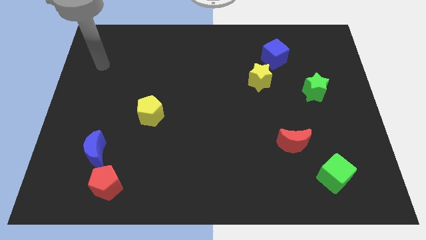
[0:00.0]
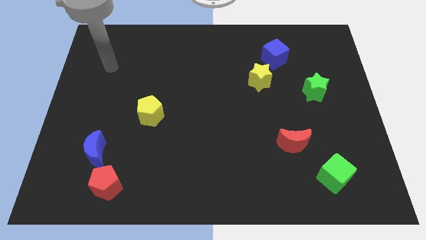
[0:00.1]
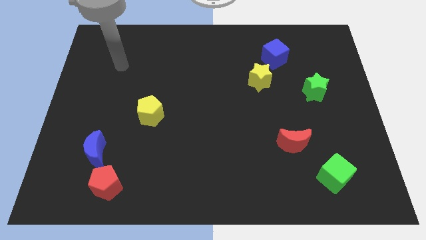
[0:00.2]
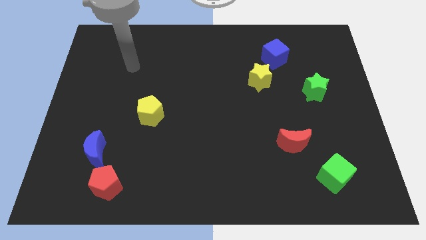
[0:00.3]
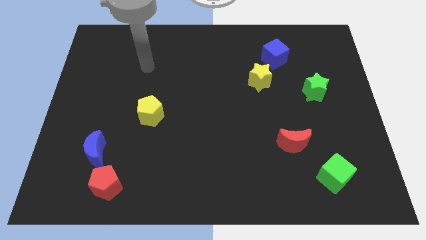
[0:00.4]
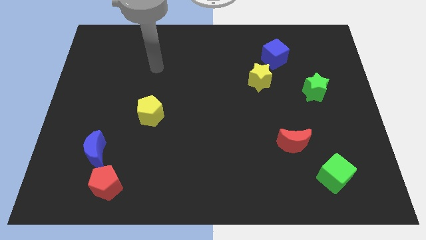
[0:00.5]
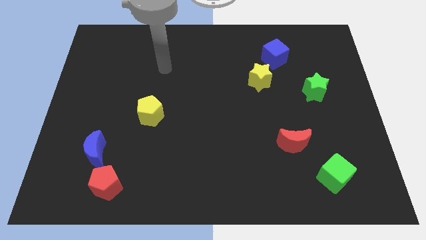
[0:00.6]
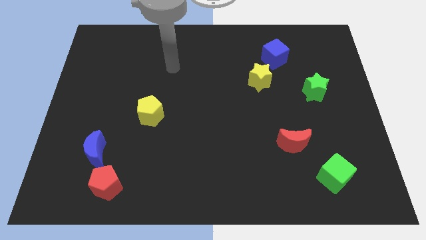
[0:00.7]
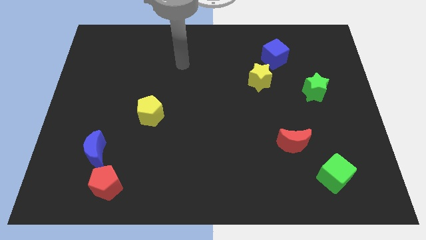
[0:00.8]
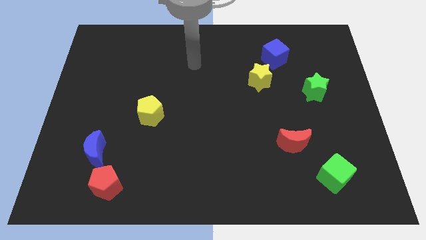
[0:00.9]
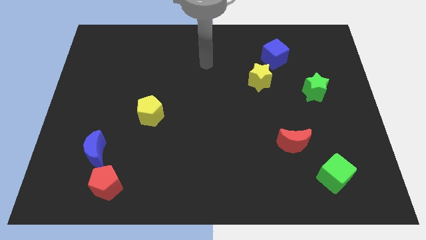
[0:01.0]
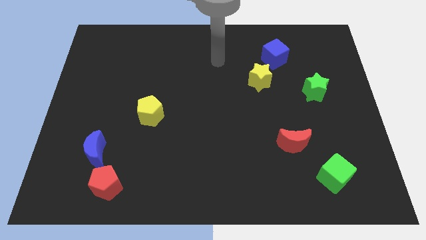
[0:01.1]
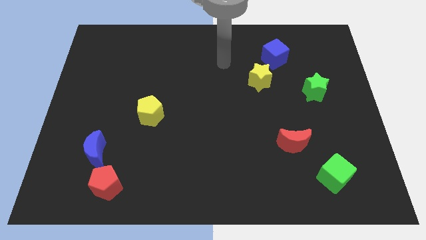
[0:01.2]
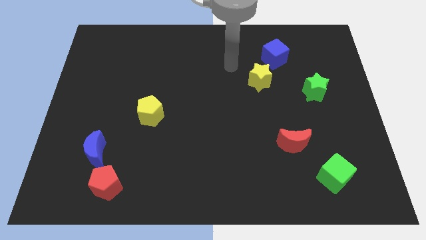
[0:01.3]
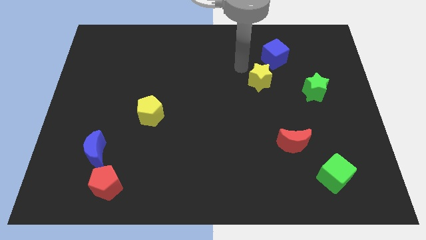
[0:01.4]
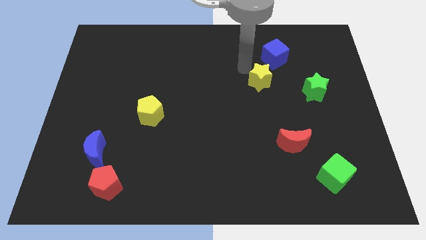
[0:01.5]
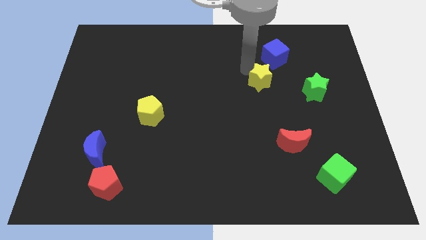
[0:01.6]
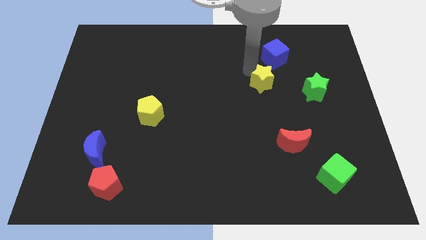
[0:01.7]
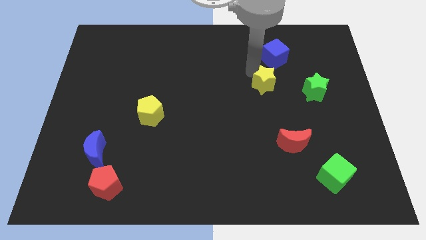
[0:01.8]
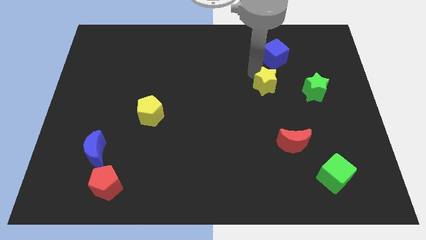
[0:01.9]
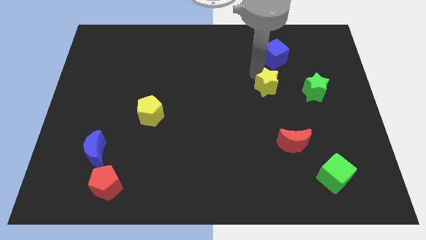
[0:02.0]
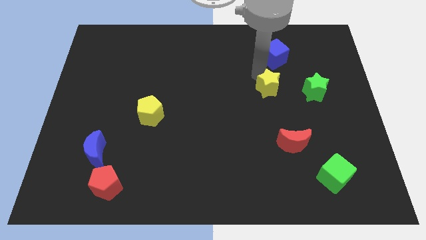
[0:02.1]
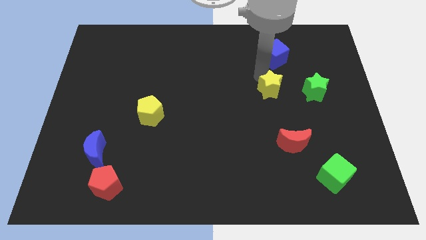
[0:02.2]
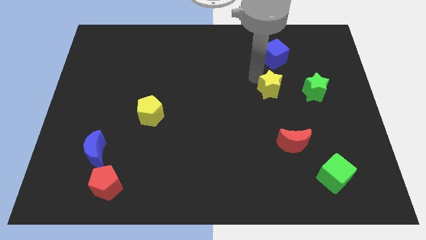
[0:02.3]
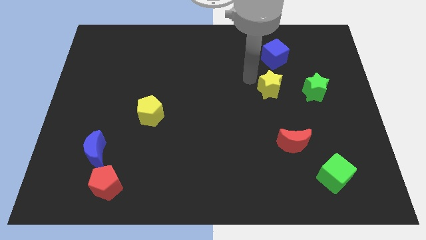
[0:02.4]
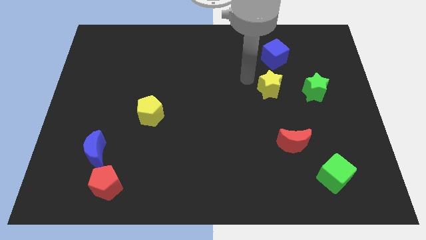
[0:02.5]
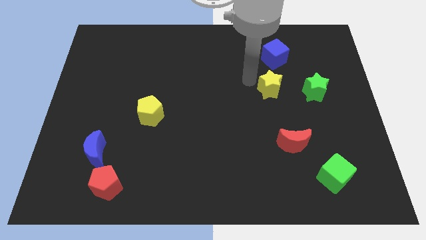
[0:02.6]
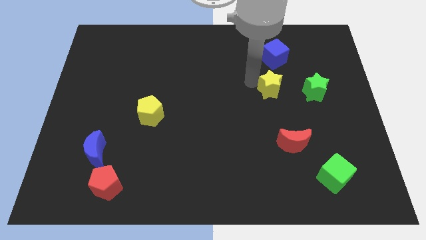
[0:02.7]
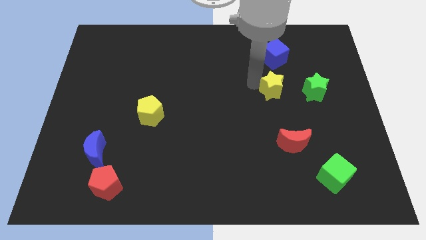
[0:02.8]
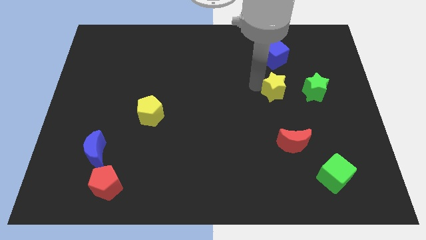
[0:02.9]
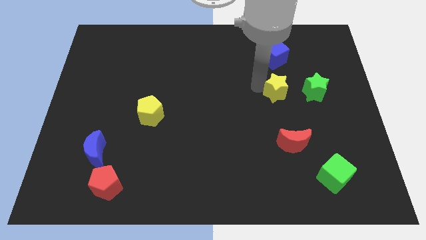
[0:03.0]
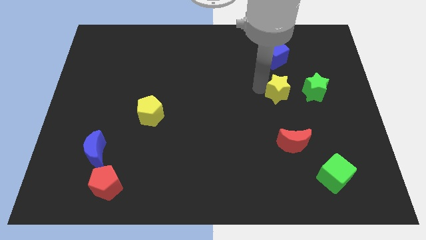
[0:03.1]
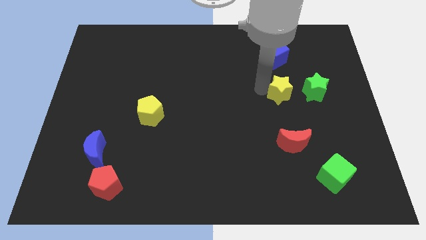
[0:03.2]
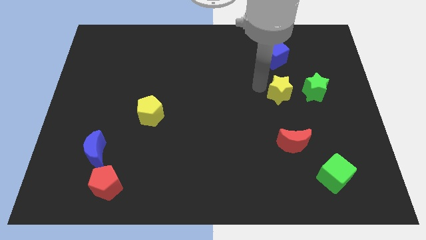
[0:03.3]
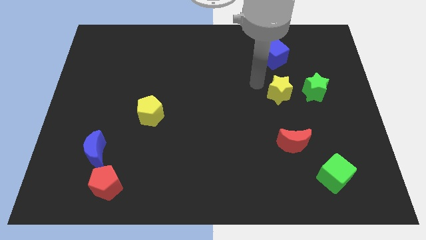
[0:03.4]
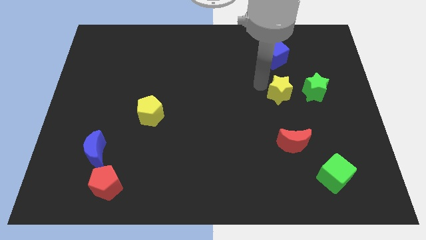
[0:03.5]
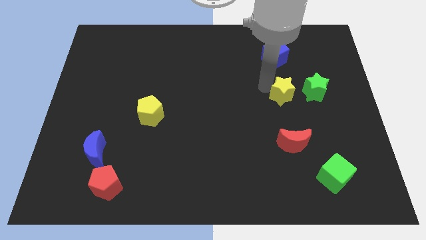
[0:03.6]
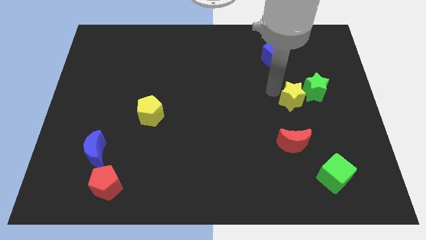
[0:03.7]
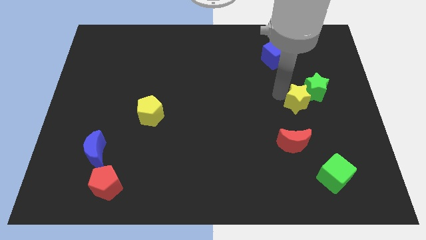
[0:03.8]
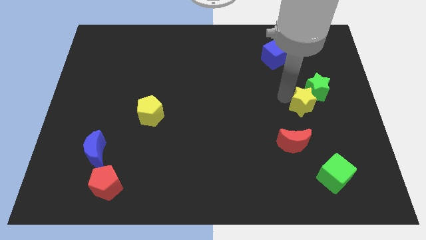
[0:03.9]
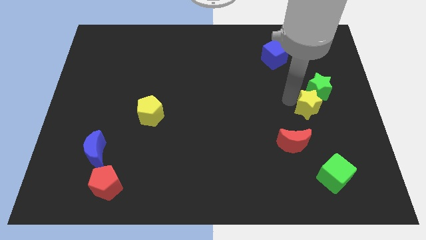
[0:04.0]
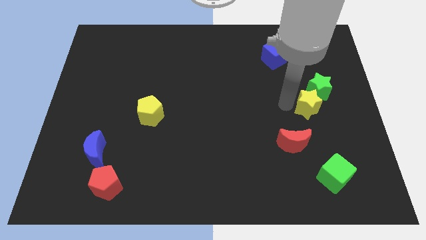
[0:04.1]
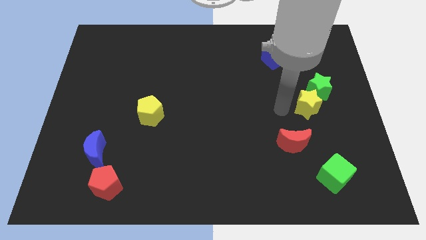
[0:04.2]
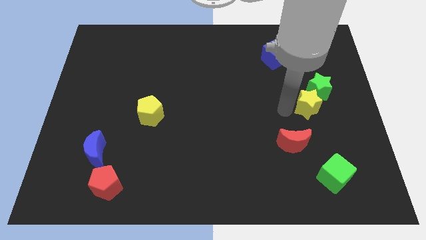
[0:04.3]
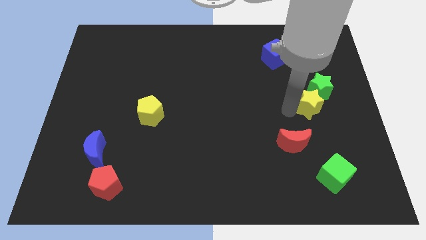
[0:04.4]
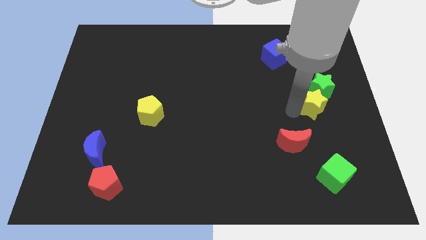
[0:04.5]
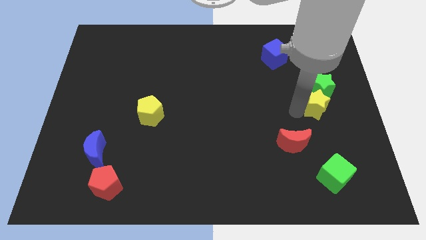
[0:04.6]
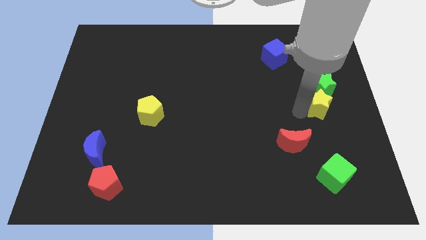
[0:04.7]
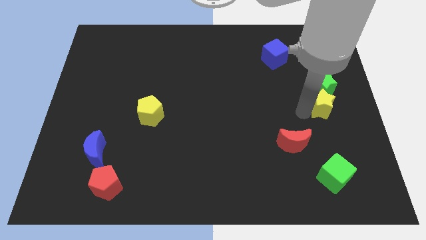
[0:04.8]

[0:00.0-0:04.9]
put the yellow star to the right side of the board

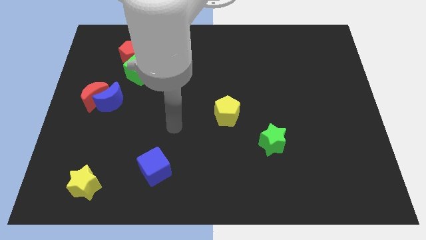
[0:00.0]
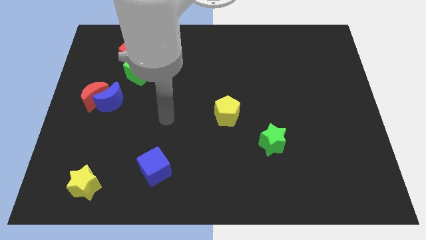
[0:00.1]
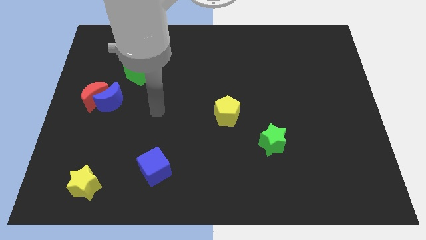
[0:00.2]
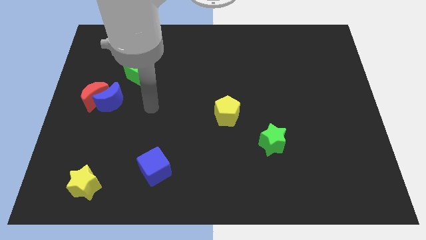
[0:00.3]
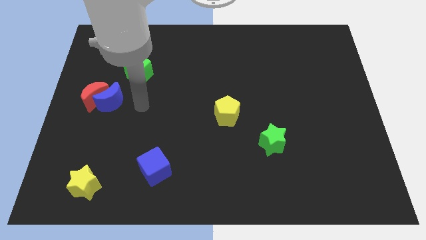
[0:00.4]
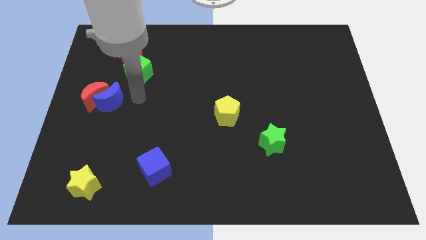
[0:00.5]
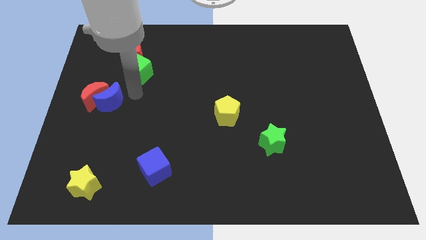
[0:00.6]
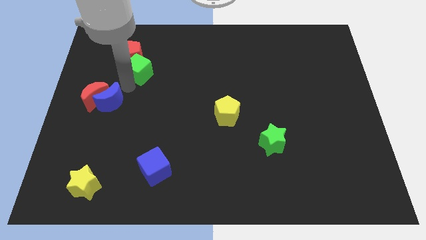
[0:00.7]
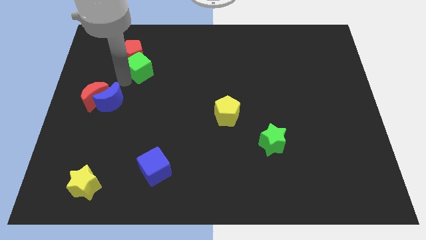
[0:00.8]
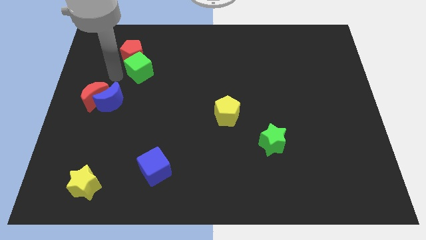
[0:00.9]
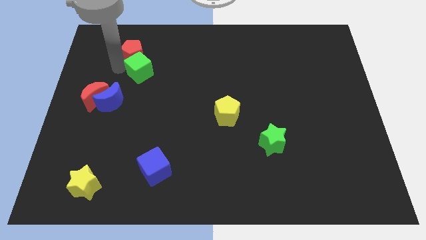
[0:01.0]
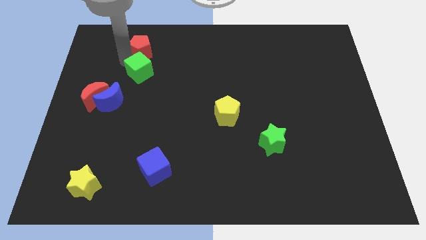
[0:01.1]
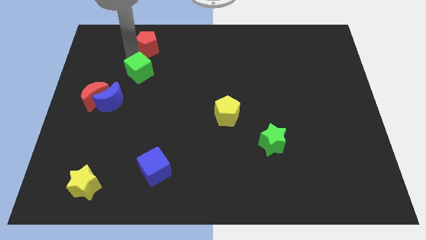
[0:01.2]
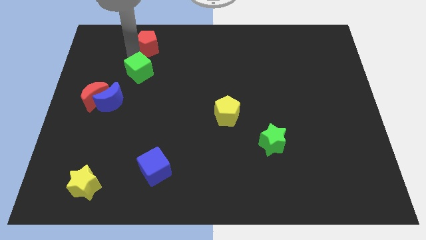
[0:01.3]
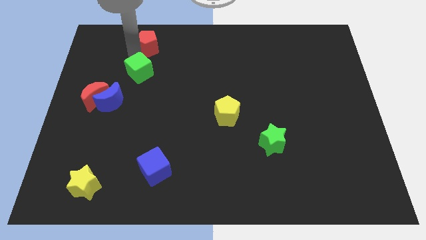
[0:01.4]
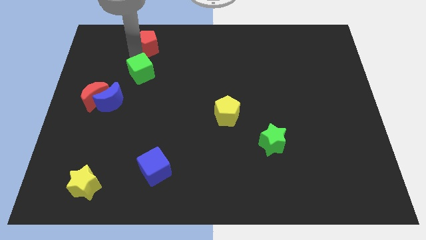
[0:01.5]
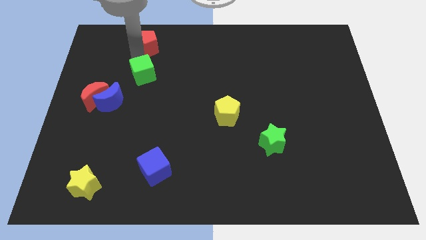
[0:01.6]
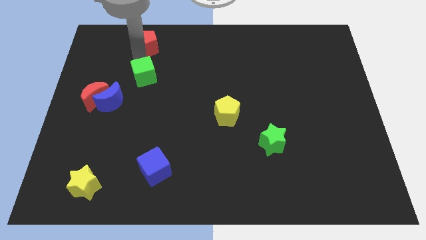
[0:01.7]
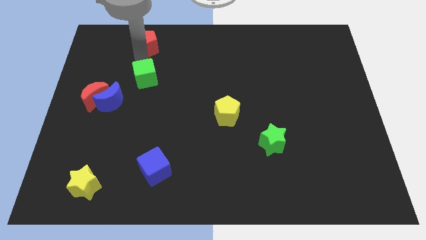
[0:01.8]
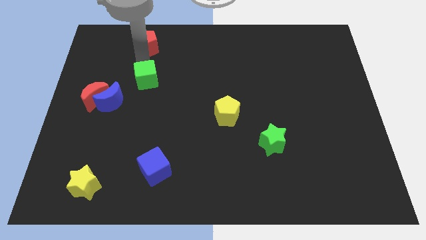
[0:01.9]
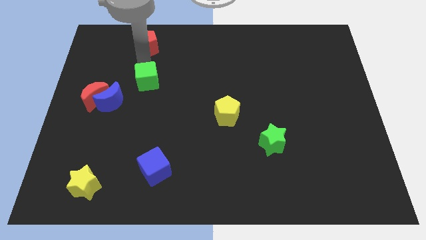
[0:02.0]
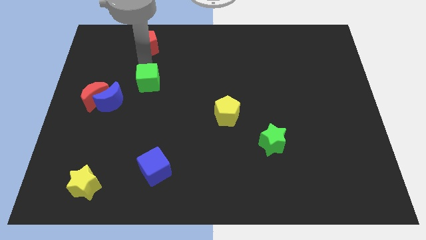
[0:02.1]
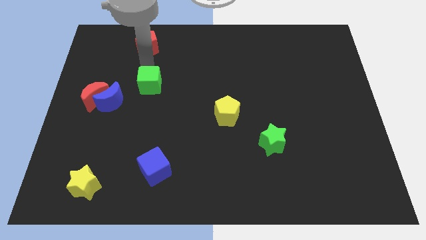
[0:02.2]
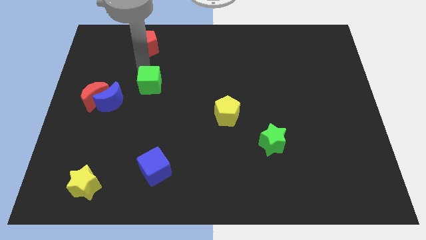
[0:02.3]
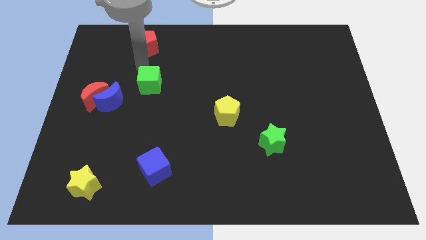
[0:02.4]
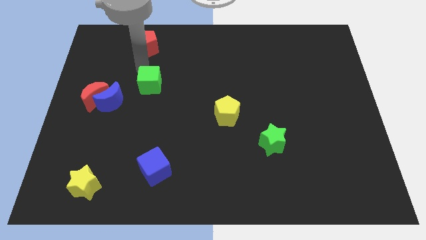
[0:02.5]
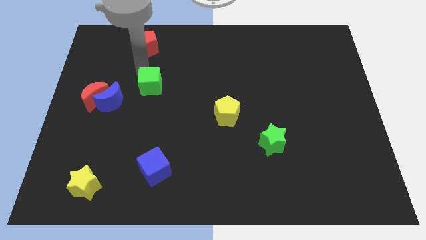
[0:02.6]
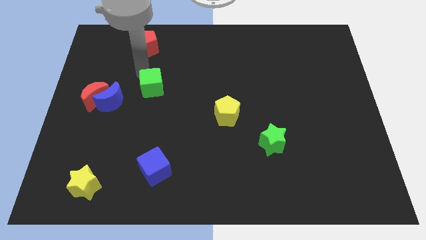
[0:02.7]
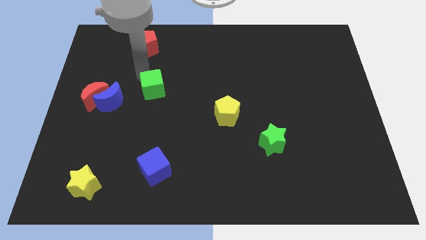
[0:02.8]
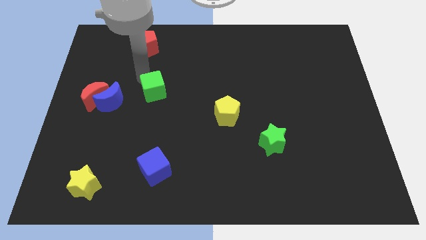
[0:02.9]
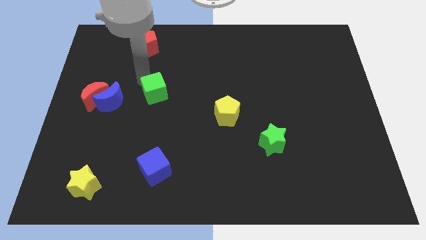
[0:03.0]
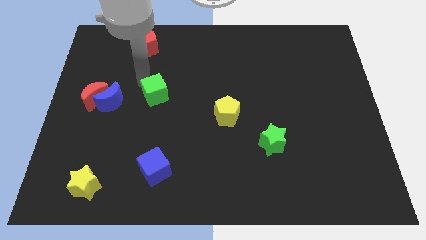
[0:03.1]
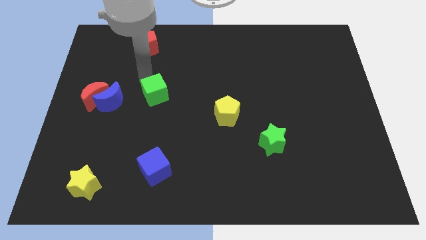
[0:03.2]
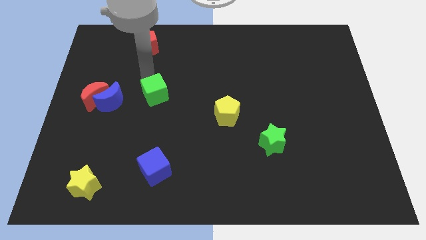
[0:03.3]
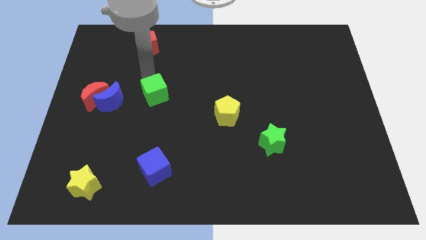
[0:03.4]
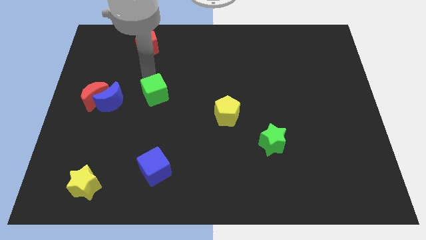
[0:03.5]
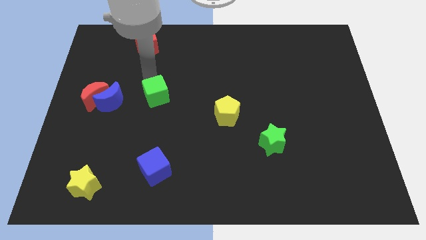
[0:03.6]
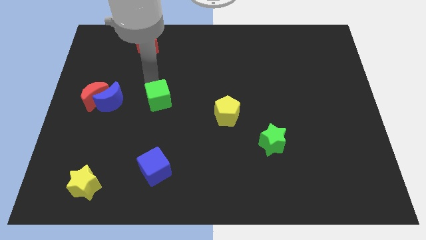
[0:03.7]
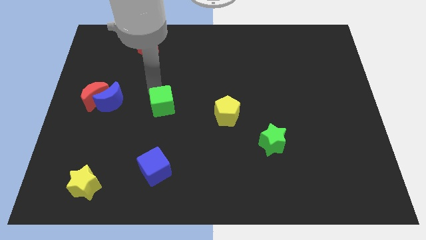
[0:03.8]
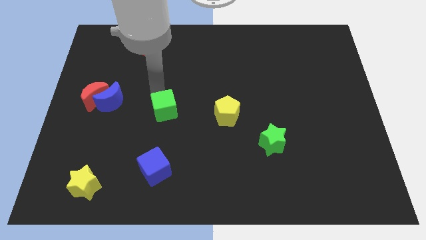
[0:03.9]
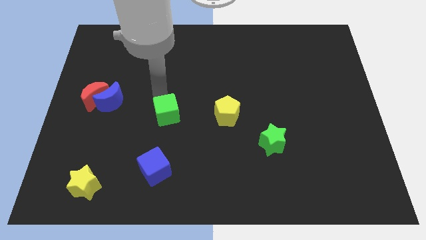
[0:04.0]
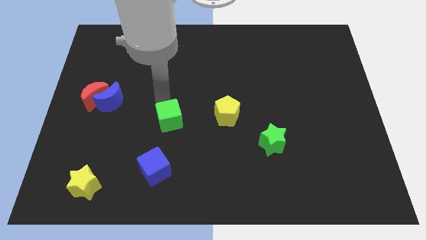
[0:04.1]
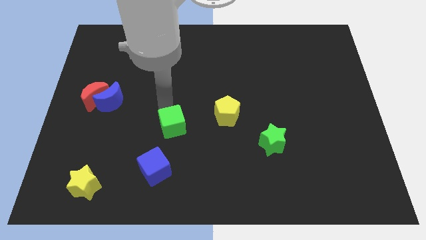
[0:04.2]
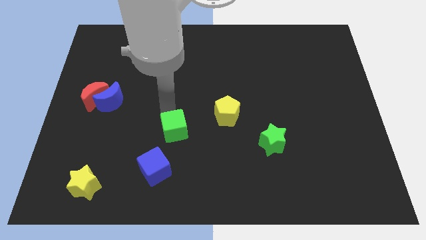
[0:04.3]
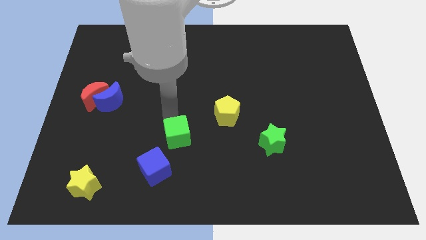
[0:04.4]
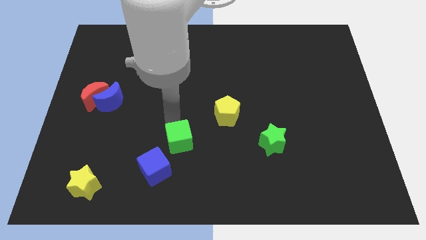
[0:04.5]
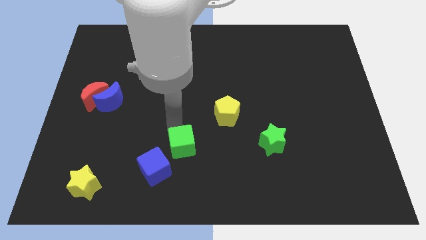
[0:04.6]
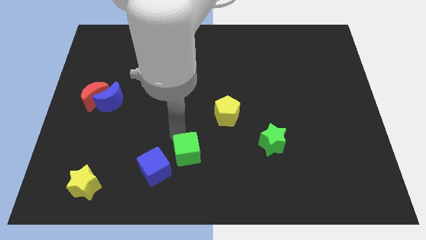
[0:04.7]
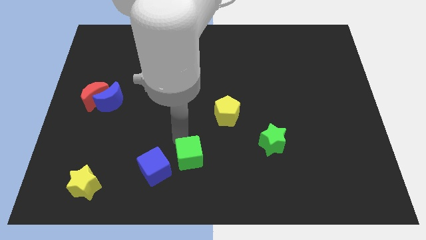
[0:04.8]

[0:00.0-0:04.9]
push the green cube to the bottom side
